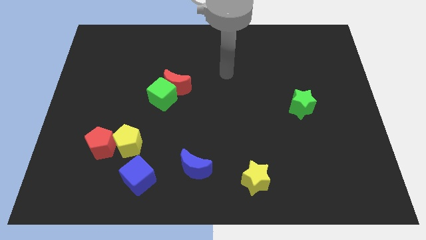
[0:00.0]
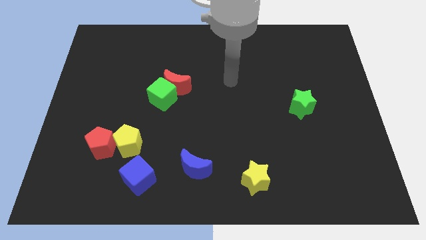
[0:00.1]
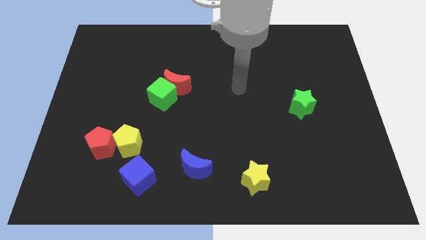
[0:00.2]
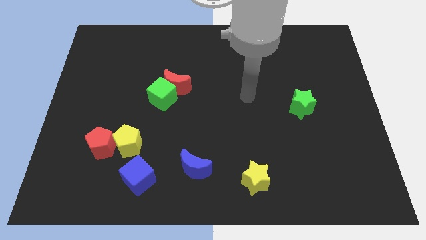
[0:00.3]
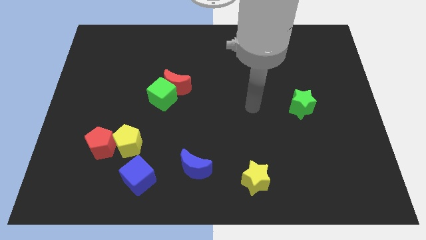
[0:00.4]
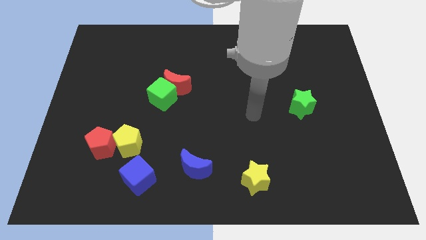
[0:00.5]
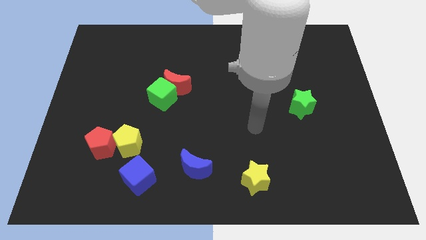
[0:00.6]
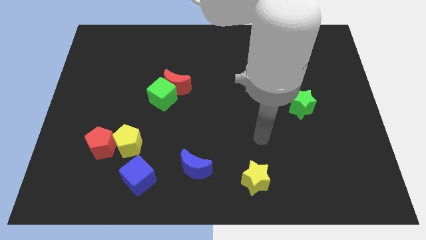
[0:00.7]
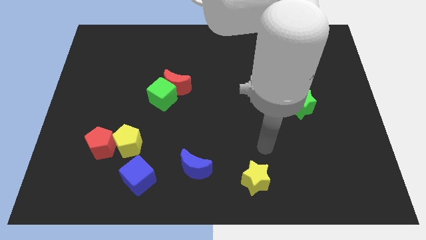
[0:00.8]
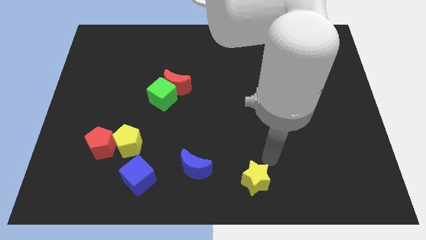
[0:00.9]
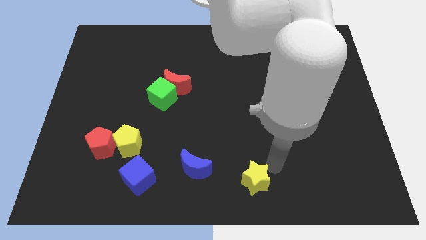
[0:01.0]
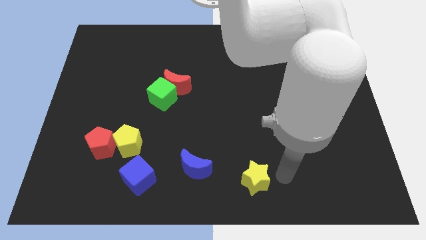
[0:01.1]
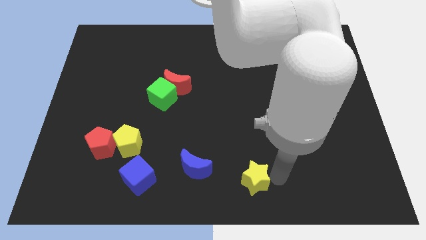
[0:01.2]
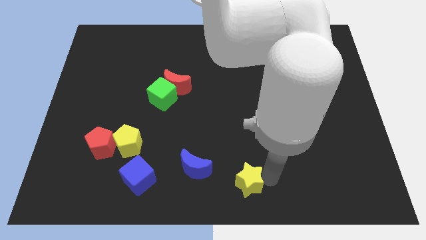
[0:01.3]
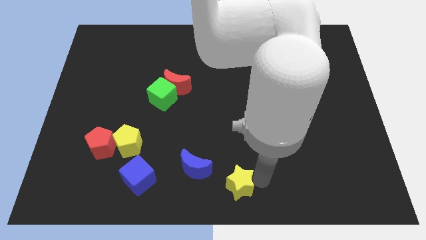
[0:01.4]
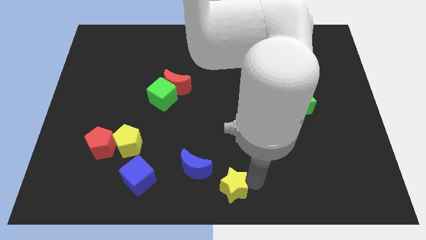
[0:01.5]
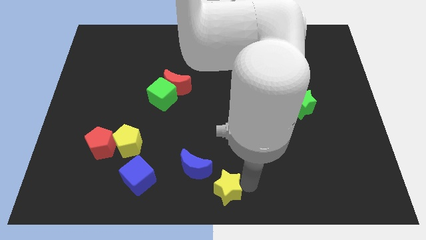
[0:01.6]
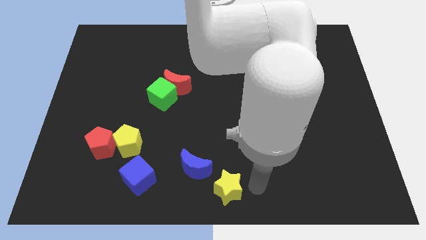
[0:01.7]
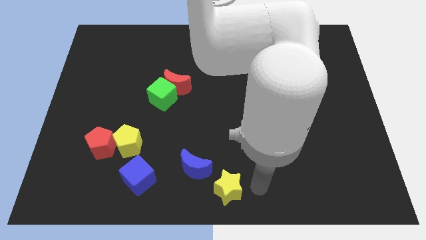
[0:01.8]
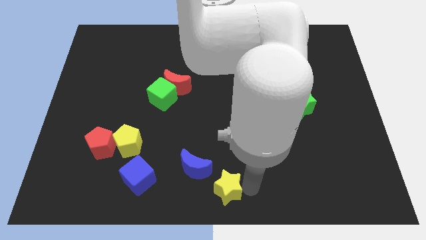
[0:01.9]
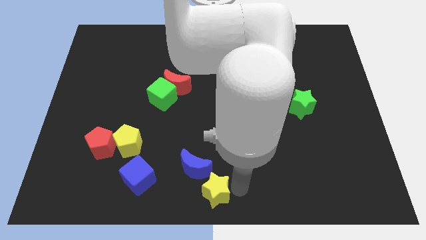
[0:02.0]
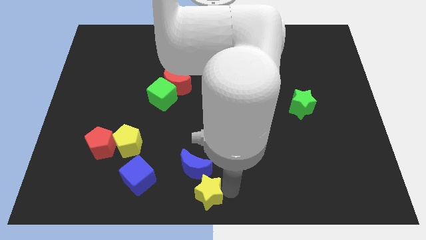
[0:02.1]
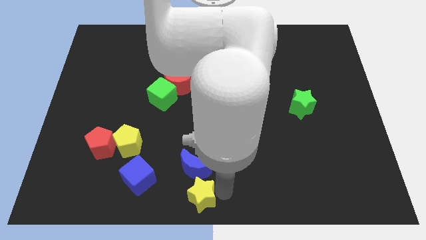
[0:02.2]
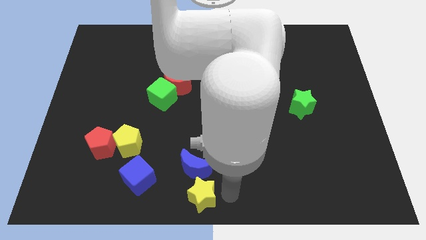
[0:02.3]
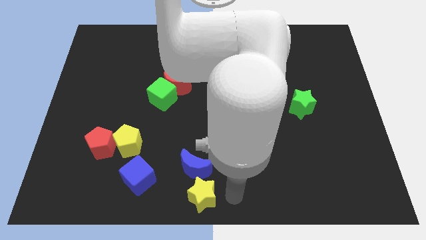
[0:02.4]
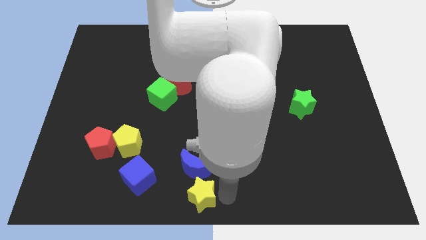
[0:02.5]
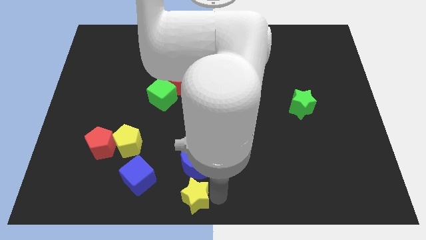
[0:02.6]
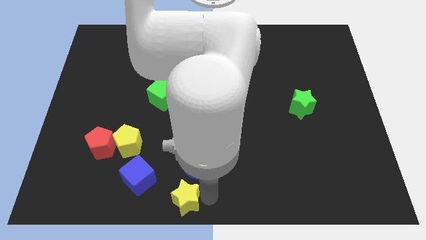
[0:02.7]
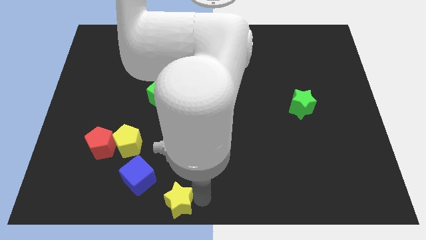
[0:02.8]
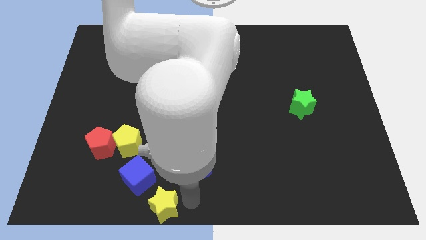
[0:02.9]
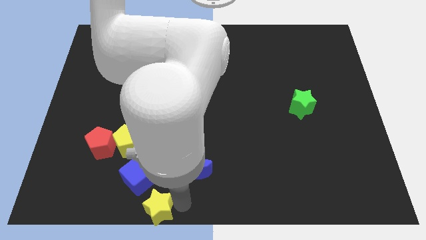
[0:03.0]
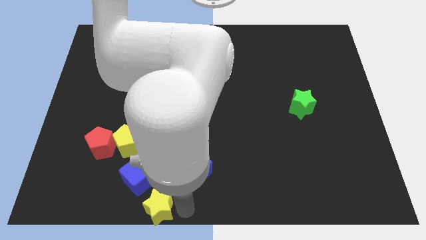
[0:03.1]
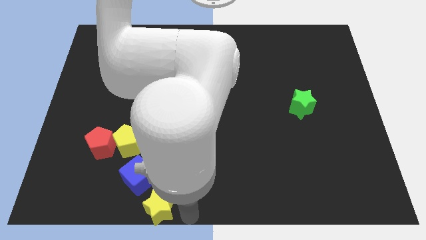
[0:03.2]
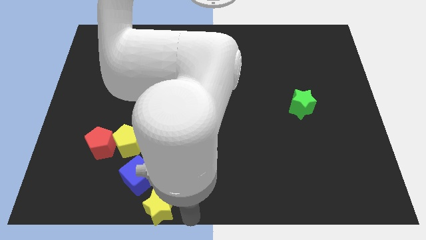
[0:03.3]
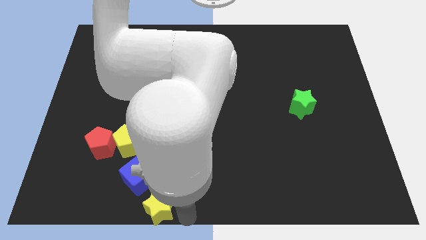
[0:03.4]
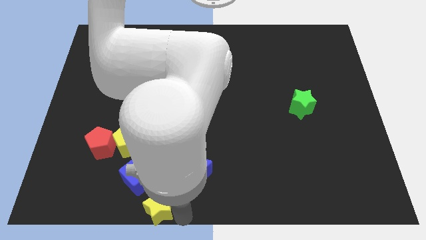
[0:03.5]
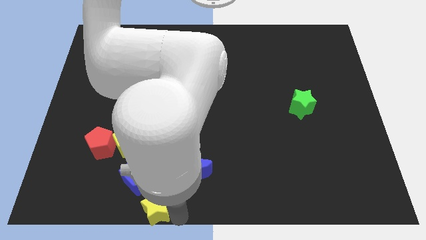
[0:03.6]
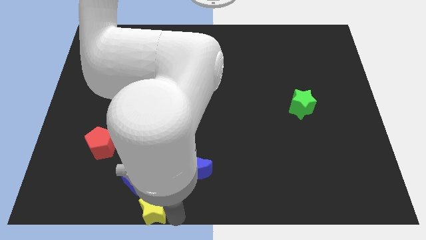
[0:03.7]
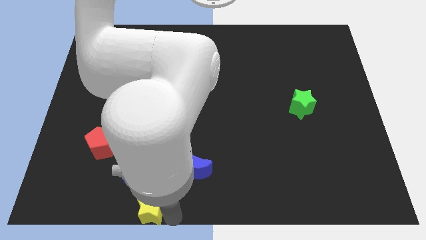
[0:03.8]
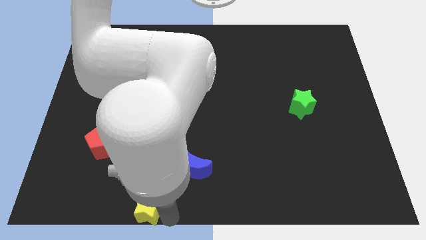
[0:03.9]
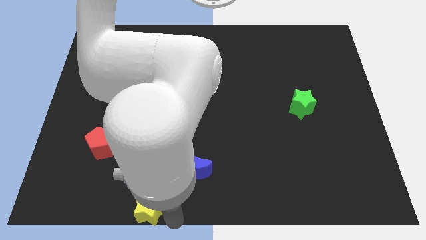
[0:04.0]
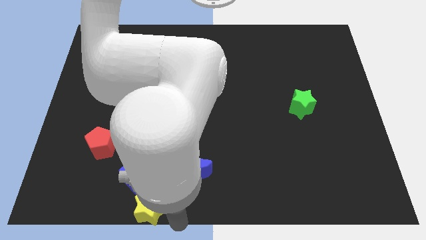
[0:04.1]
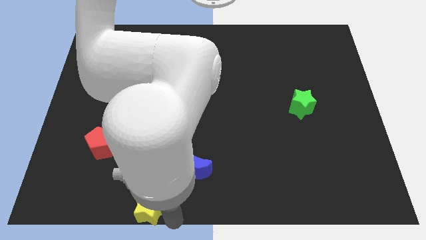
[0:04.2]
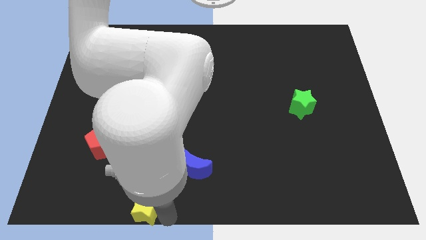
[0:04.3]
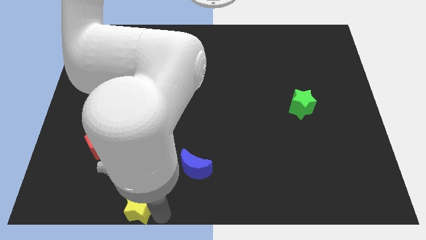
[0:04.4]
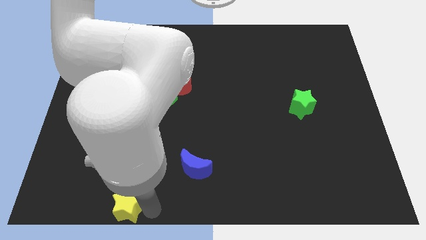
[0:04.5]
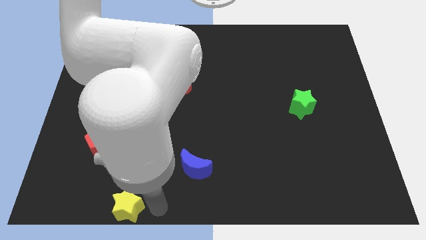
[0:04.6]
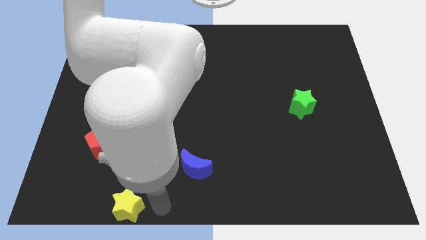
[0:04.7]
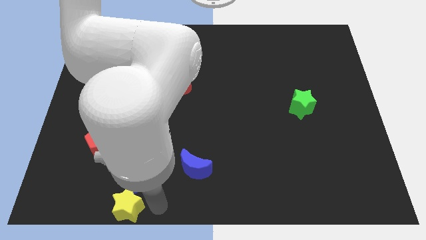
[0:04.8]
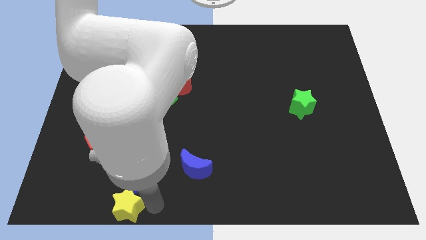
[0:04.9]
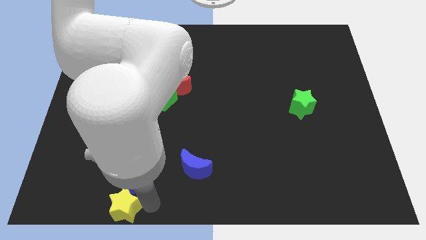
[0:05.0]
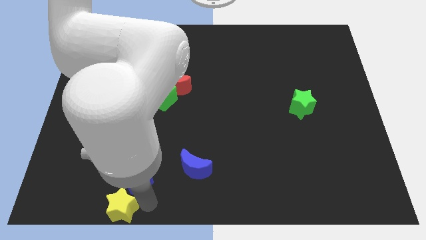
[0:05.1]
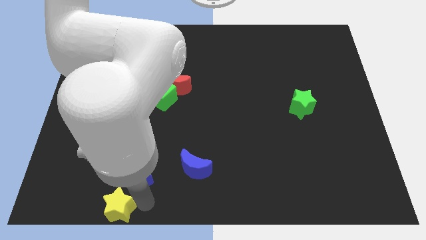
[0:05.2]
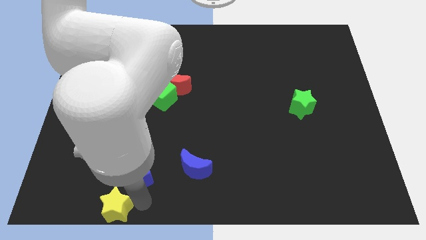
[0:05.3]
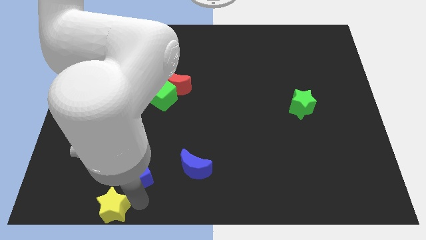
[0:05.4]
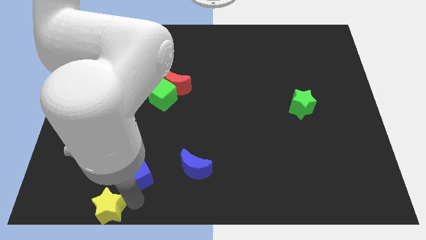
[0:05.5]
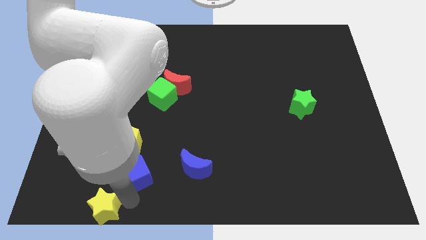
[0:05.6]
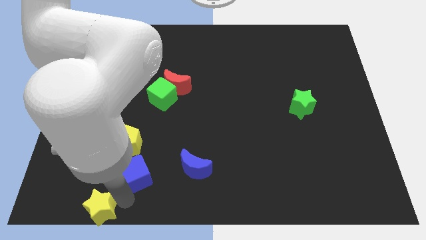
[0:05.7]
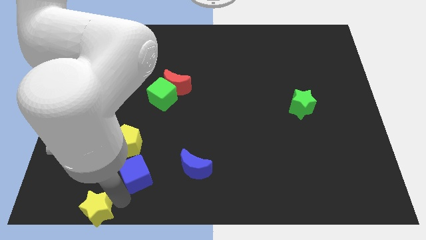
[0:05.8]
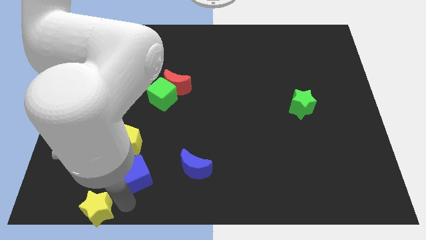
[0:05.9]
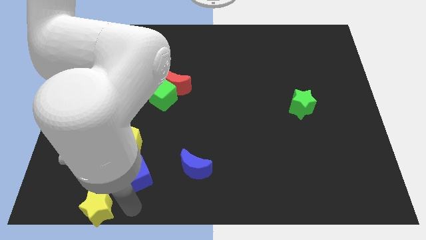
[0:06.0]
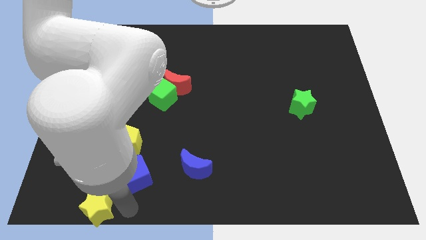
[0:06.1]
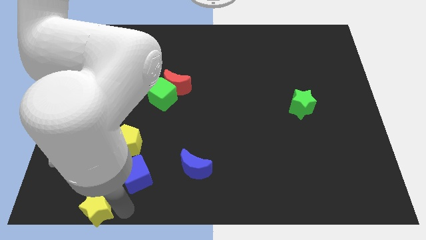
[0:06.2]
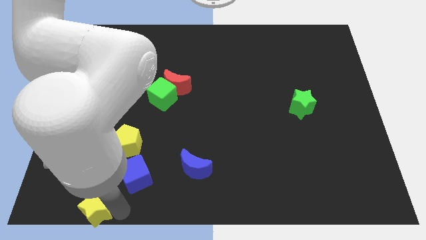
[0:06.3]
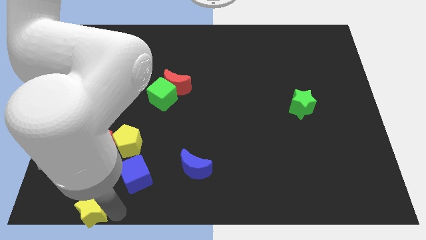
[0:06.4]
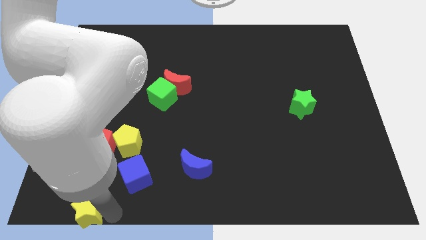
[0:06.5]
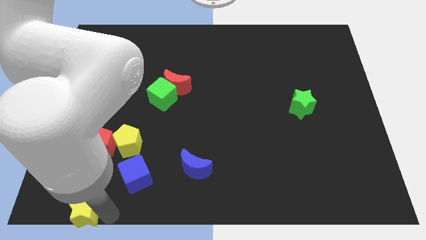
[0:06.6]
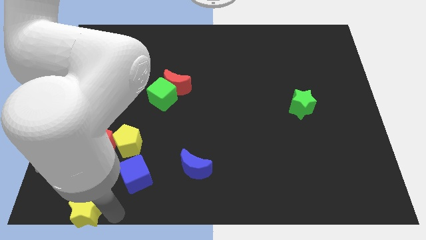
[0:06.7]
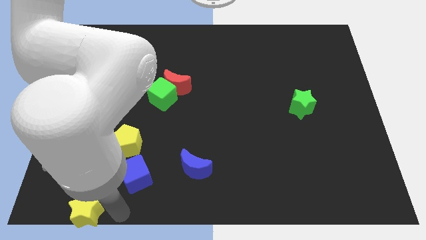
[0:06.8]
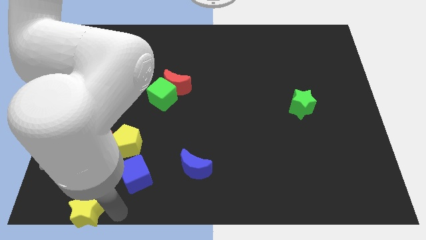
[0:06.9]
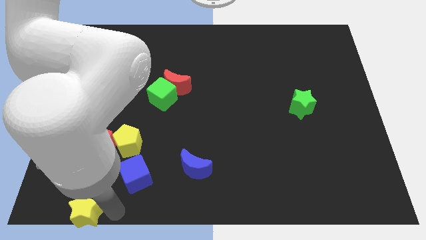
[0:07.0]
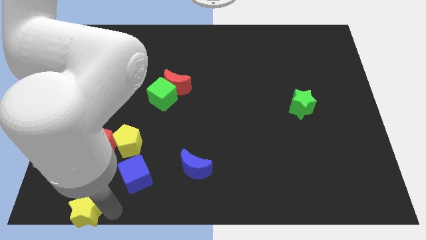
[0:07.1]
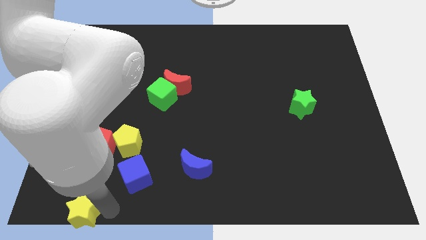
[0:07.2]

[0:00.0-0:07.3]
push the yellow star to the bottom left of the board
